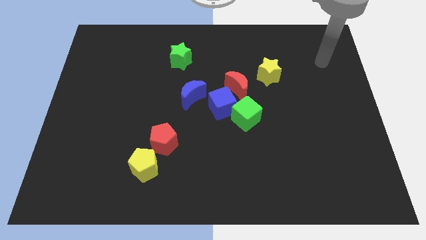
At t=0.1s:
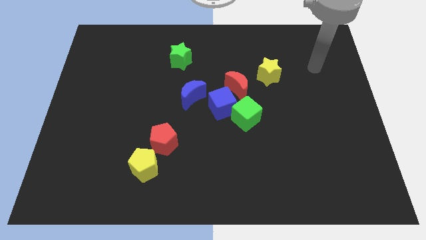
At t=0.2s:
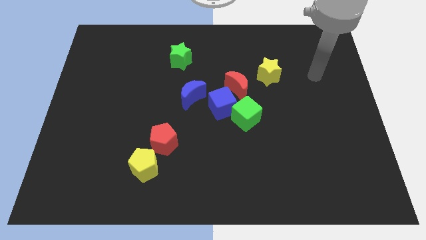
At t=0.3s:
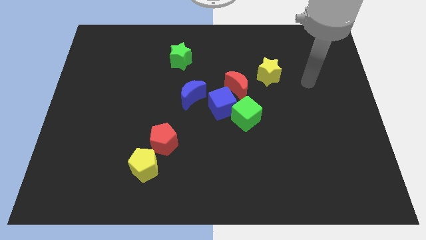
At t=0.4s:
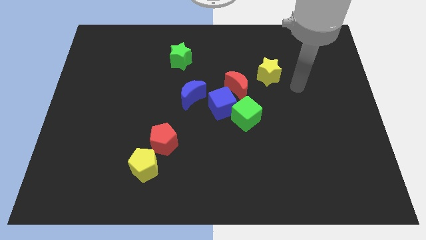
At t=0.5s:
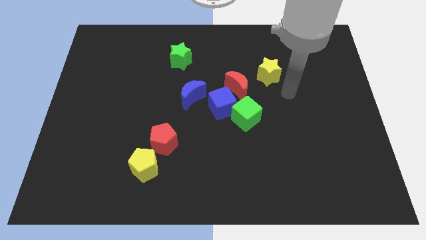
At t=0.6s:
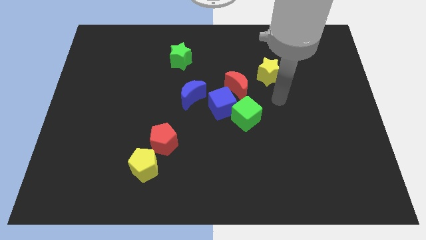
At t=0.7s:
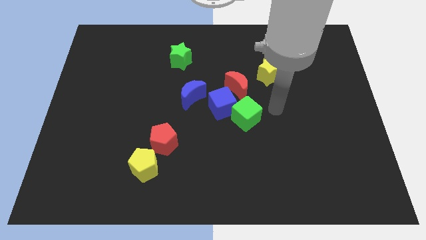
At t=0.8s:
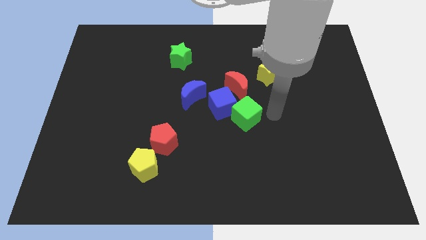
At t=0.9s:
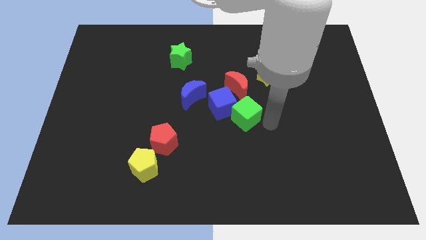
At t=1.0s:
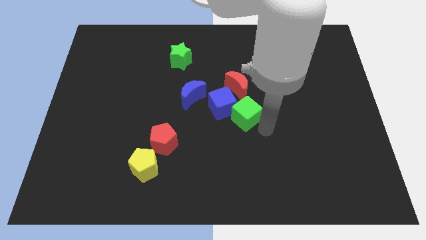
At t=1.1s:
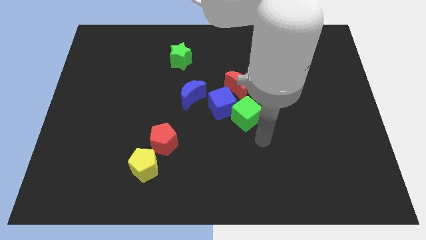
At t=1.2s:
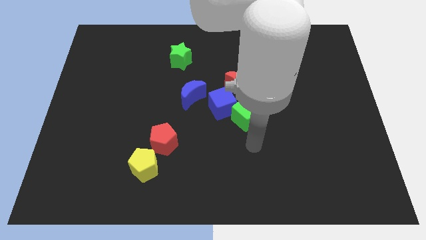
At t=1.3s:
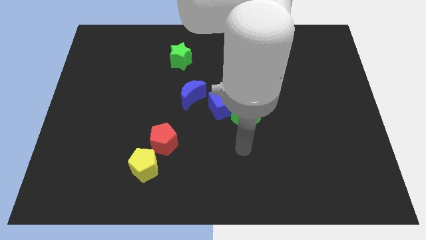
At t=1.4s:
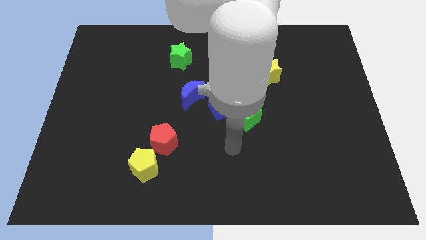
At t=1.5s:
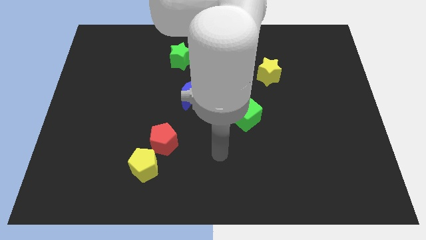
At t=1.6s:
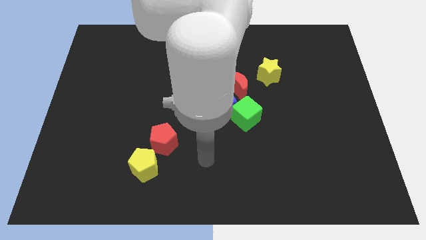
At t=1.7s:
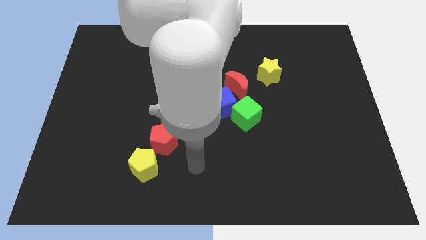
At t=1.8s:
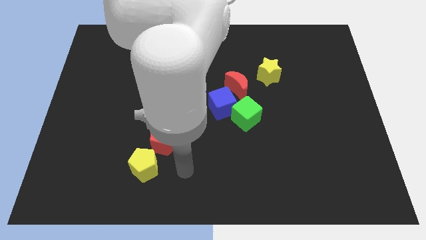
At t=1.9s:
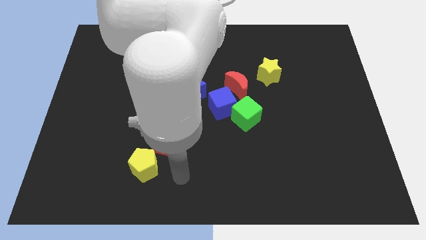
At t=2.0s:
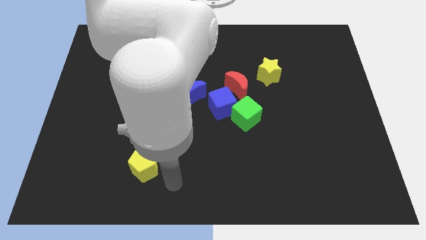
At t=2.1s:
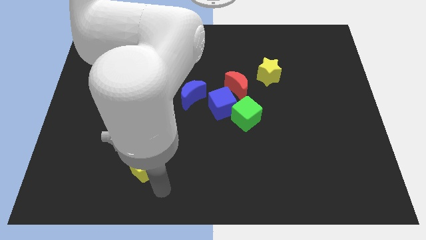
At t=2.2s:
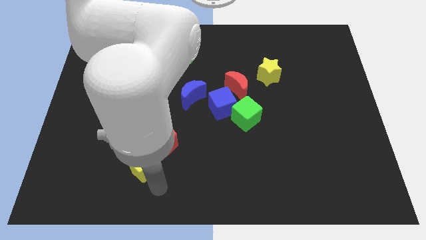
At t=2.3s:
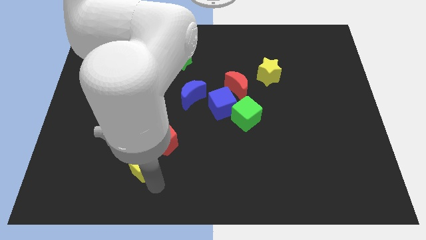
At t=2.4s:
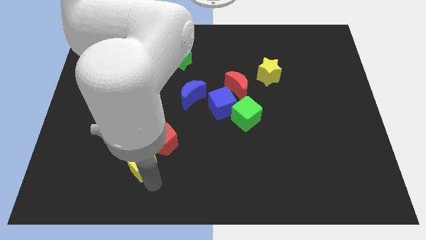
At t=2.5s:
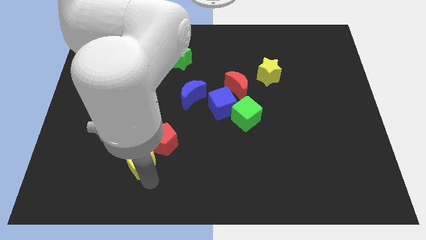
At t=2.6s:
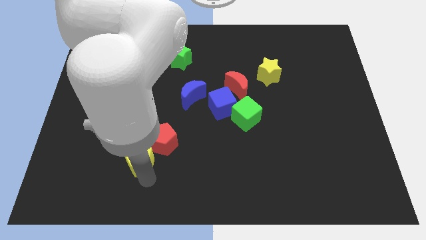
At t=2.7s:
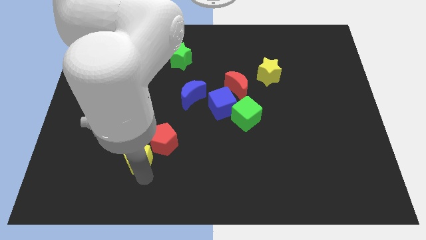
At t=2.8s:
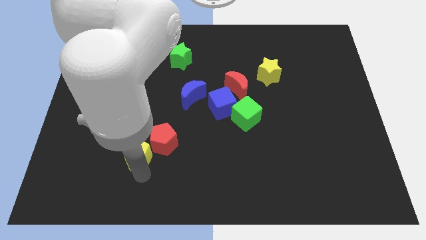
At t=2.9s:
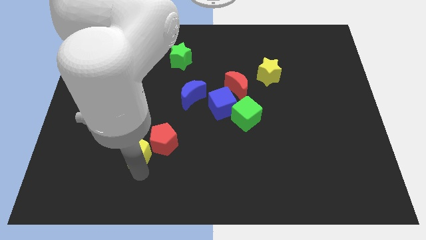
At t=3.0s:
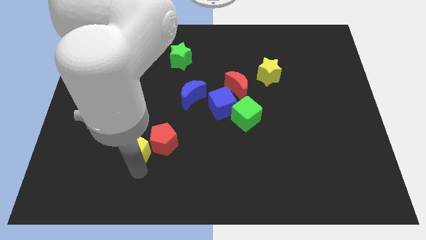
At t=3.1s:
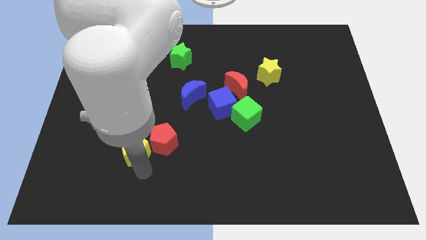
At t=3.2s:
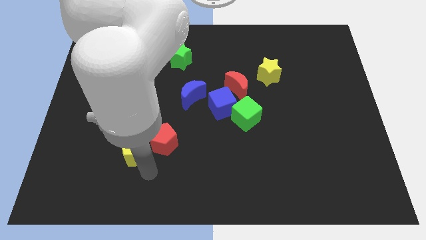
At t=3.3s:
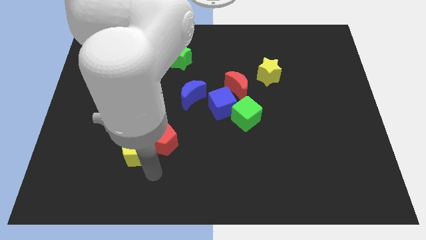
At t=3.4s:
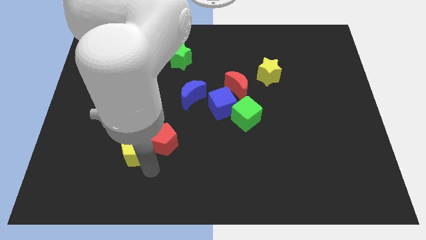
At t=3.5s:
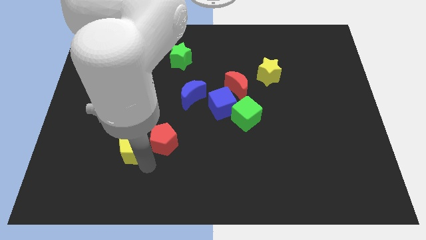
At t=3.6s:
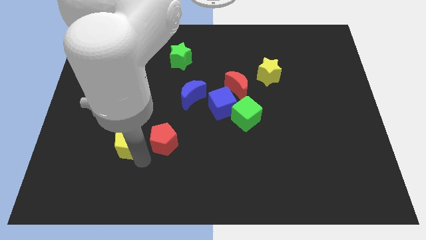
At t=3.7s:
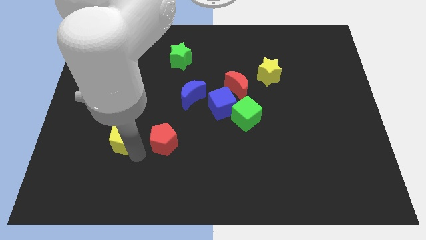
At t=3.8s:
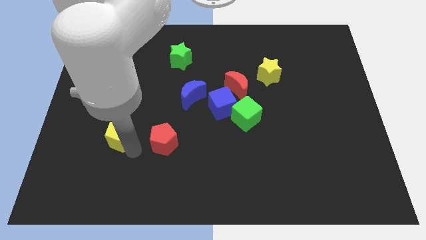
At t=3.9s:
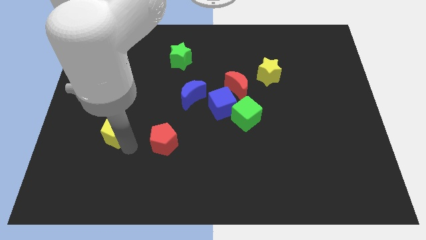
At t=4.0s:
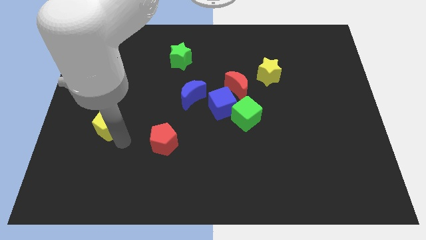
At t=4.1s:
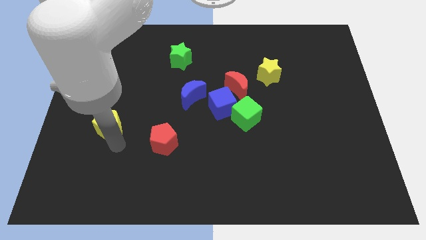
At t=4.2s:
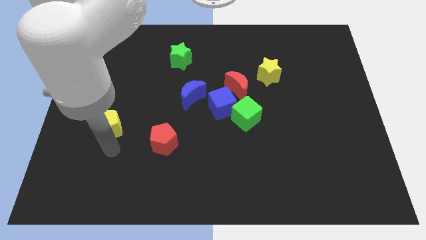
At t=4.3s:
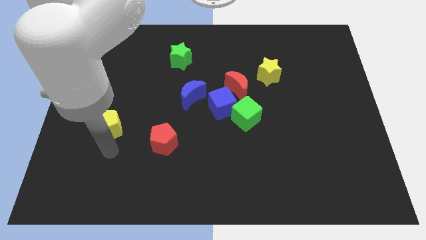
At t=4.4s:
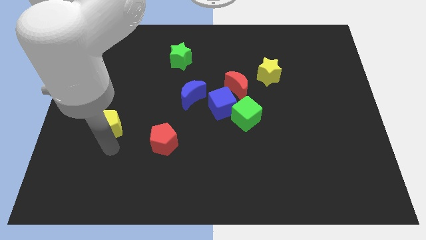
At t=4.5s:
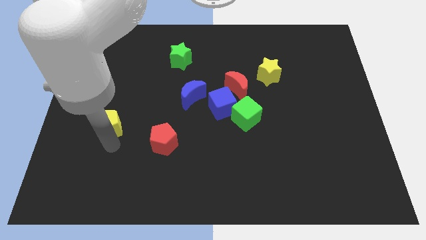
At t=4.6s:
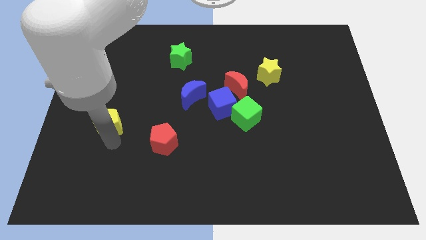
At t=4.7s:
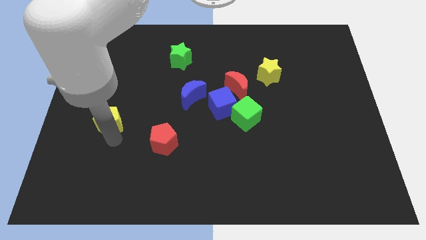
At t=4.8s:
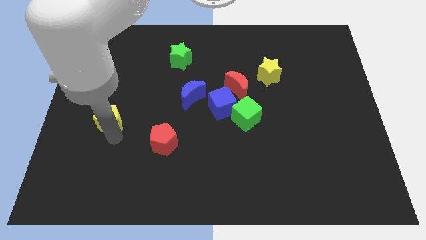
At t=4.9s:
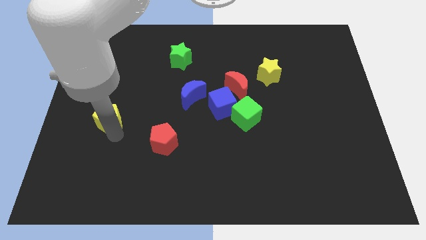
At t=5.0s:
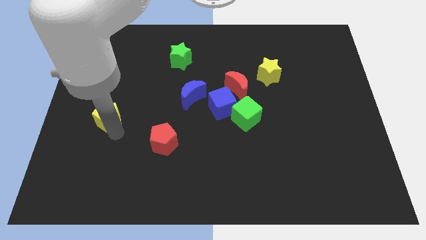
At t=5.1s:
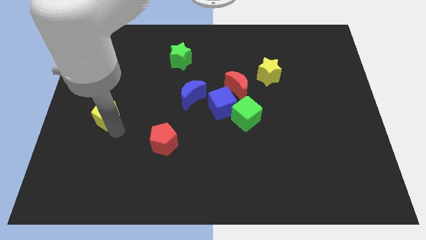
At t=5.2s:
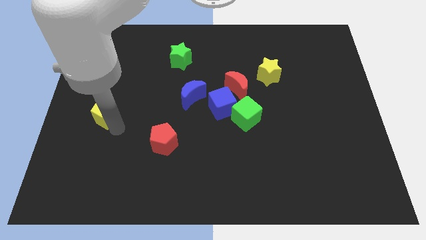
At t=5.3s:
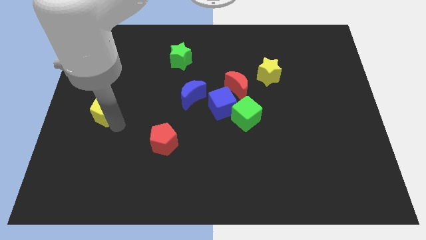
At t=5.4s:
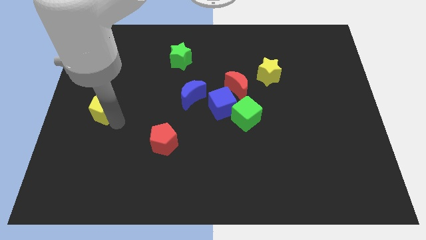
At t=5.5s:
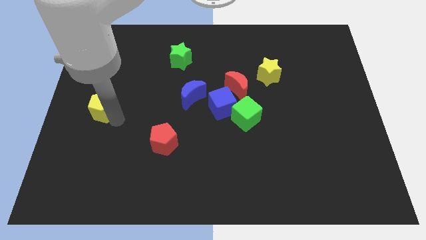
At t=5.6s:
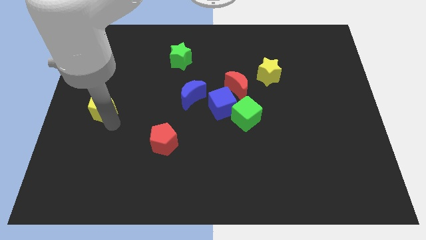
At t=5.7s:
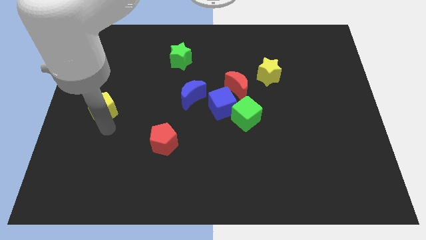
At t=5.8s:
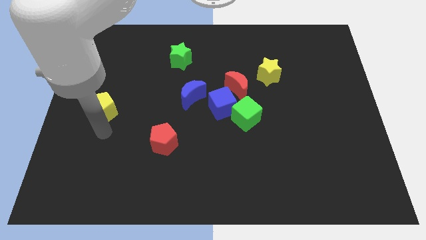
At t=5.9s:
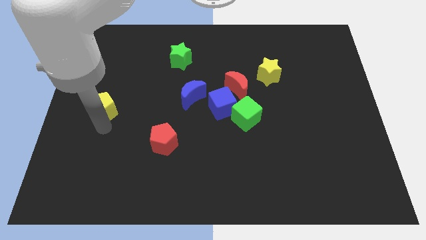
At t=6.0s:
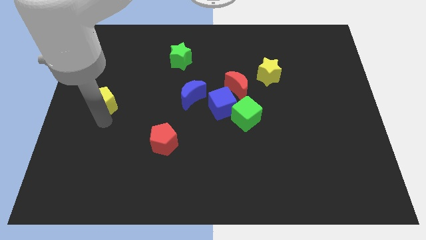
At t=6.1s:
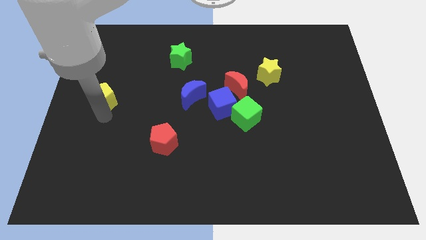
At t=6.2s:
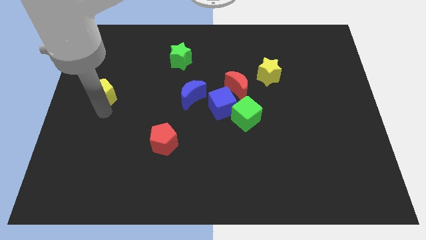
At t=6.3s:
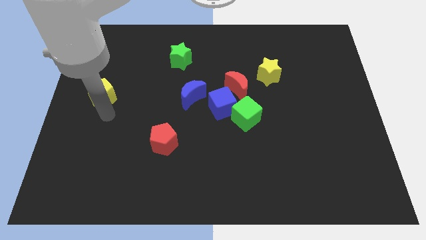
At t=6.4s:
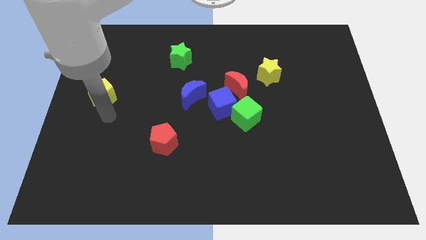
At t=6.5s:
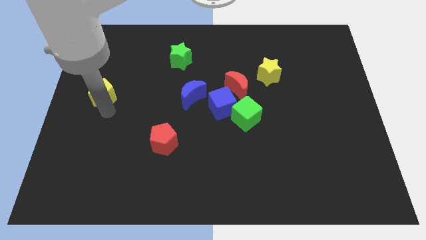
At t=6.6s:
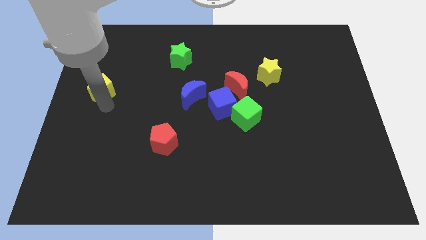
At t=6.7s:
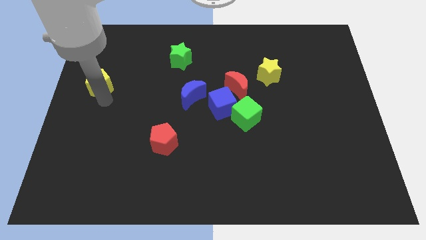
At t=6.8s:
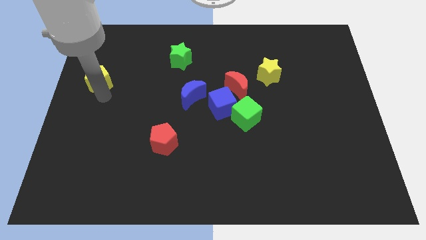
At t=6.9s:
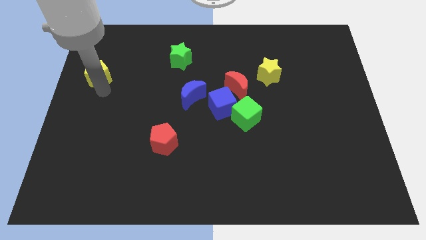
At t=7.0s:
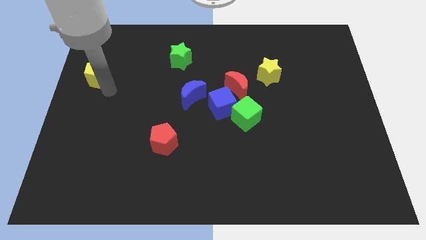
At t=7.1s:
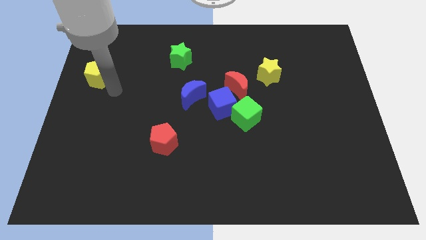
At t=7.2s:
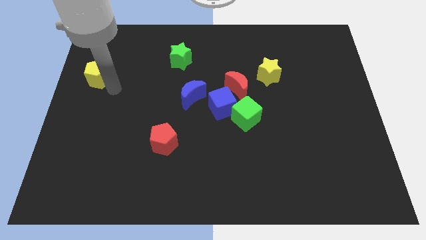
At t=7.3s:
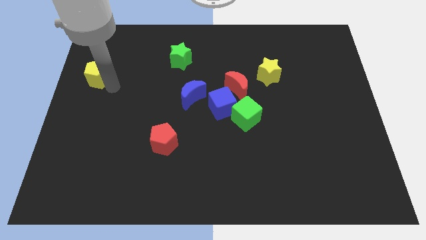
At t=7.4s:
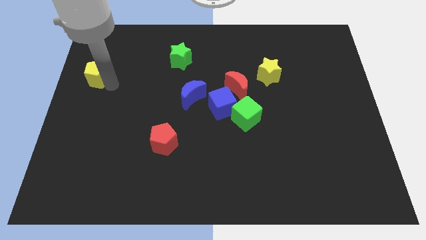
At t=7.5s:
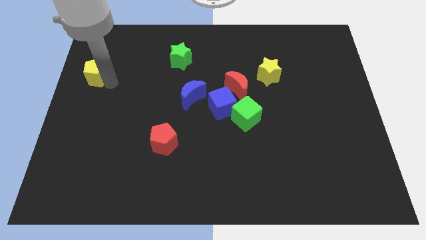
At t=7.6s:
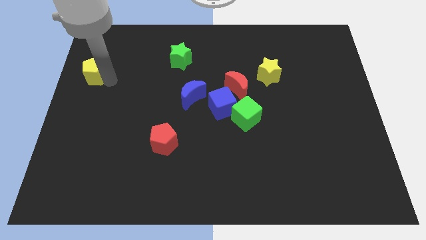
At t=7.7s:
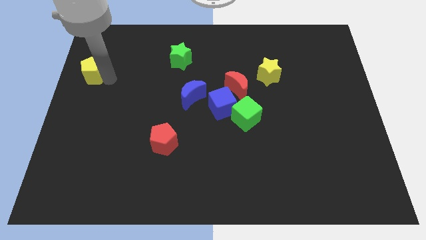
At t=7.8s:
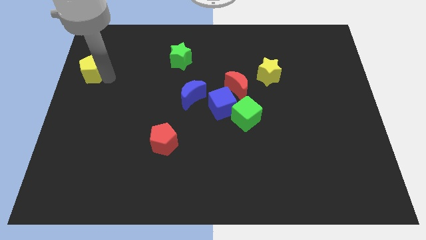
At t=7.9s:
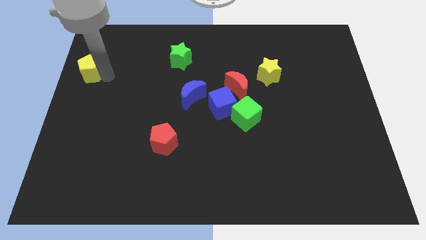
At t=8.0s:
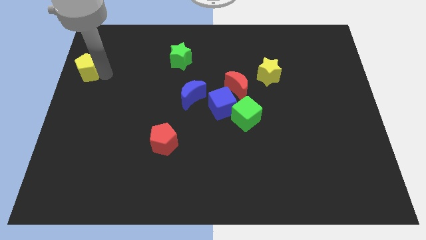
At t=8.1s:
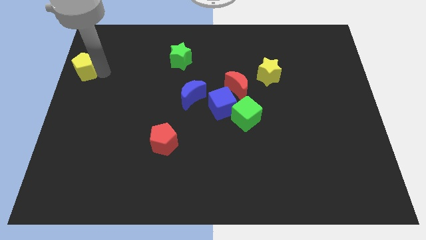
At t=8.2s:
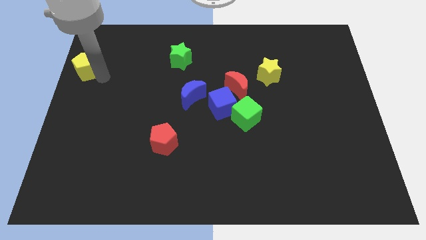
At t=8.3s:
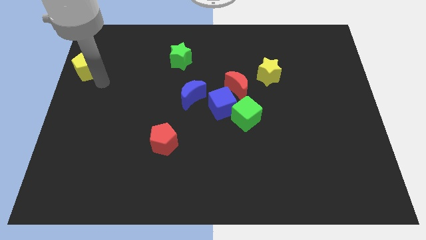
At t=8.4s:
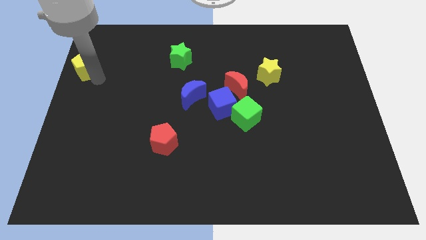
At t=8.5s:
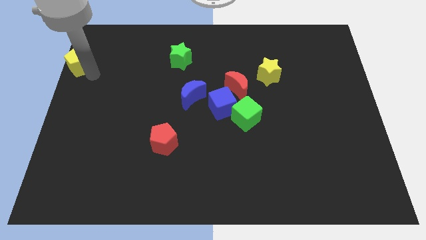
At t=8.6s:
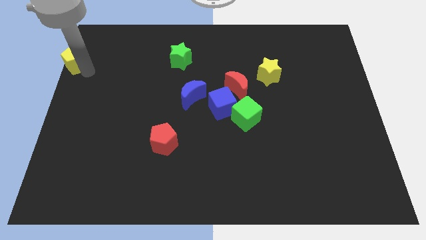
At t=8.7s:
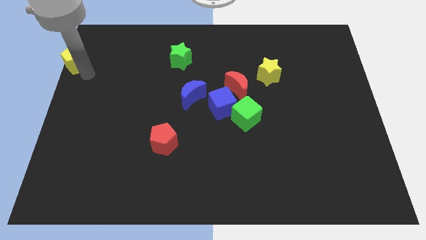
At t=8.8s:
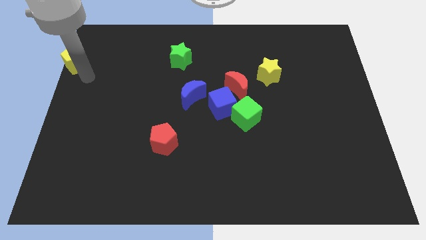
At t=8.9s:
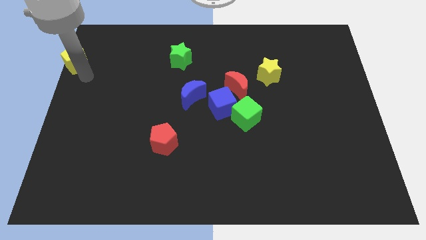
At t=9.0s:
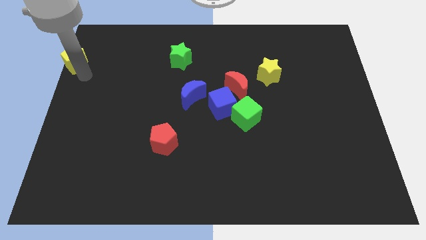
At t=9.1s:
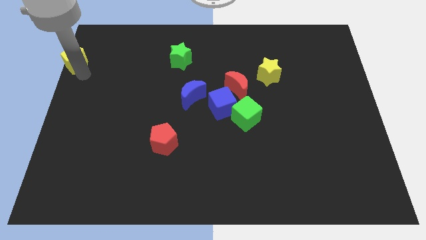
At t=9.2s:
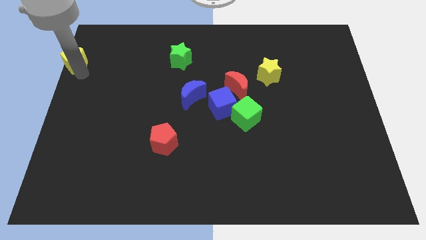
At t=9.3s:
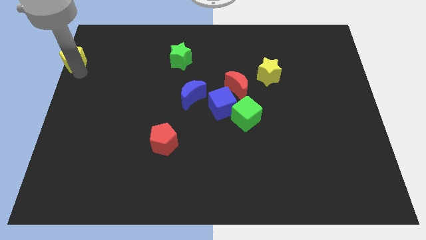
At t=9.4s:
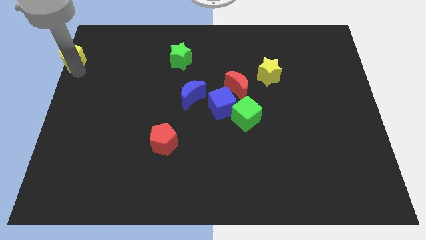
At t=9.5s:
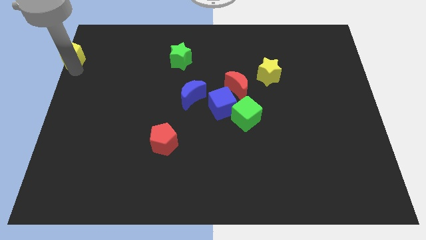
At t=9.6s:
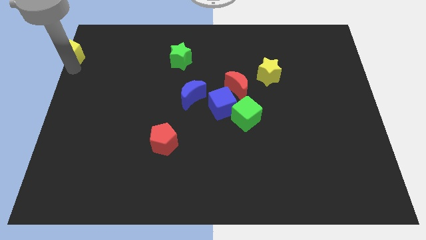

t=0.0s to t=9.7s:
push the yellow pentagon to the top left
